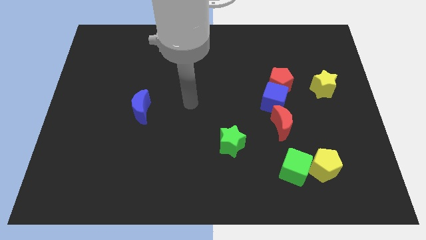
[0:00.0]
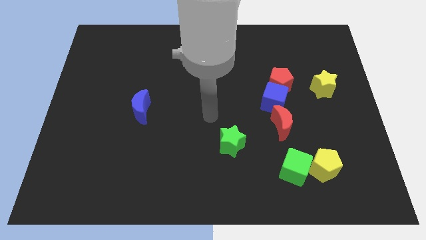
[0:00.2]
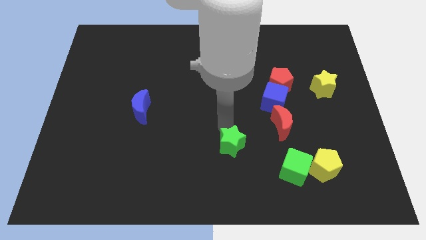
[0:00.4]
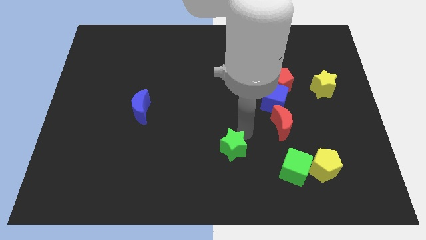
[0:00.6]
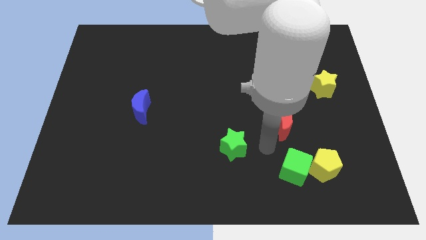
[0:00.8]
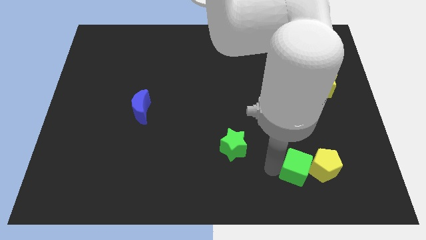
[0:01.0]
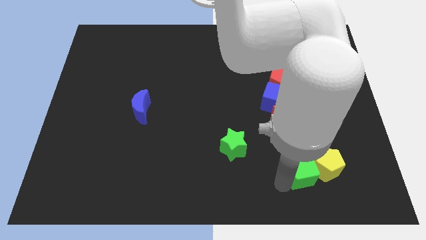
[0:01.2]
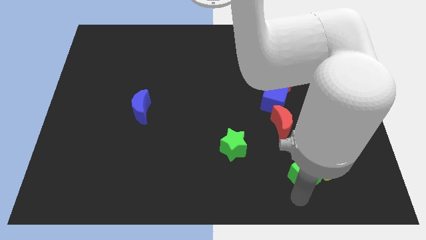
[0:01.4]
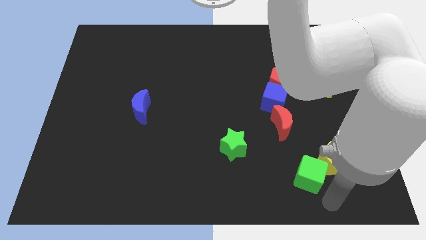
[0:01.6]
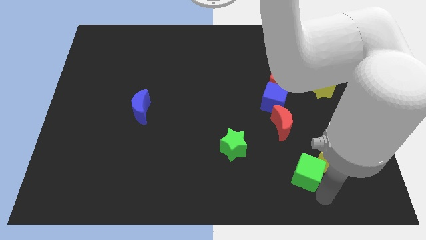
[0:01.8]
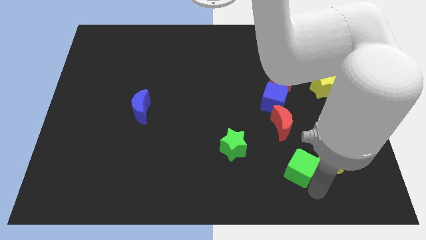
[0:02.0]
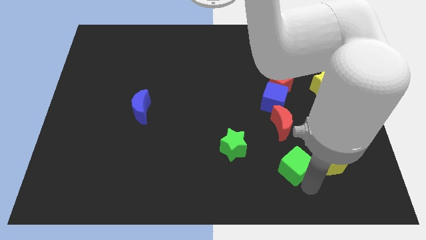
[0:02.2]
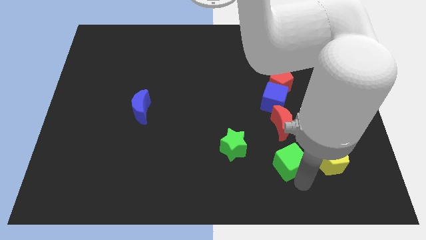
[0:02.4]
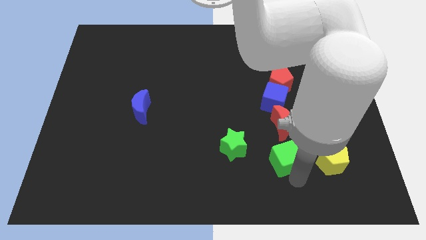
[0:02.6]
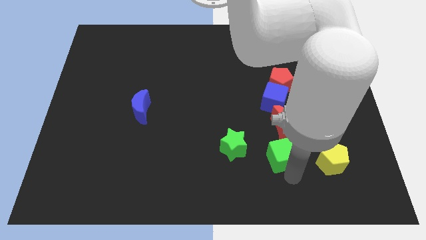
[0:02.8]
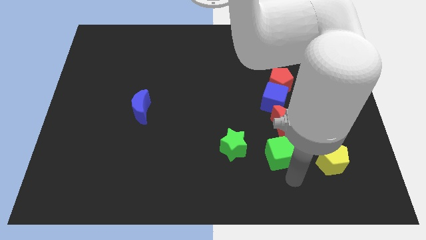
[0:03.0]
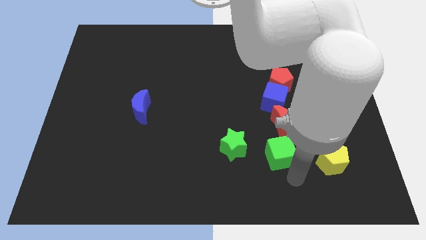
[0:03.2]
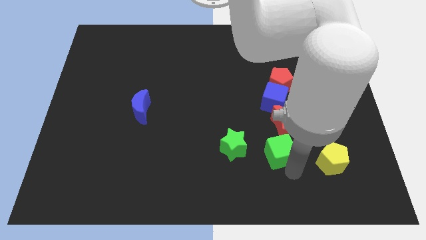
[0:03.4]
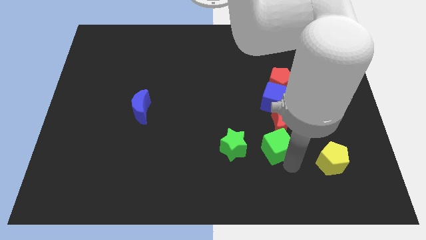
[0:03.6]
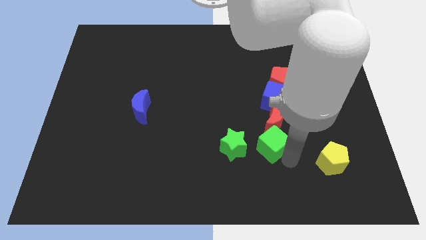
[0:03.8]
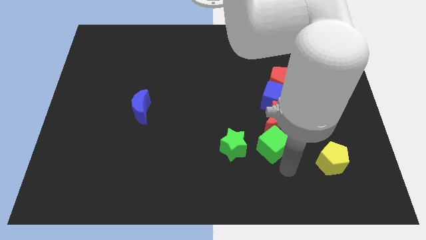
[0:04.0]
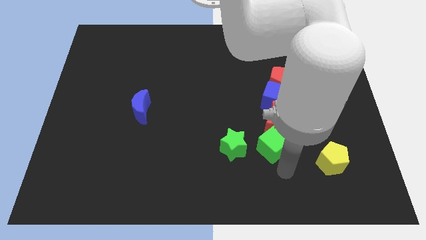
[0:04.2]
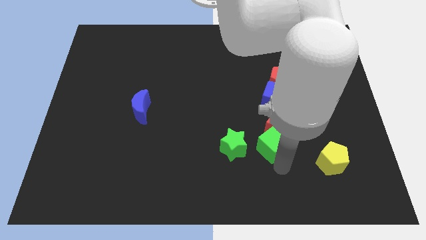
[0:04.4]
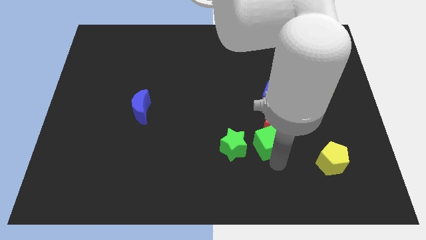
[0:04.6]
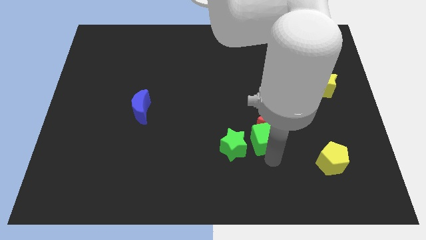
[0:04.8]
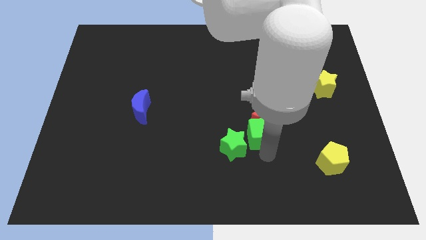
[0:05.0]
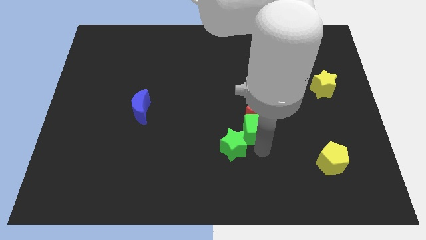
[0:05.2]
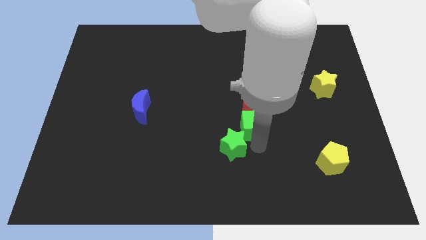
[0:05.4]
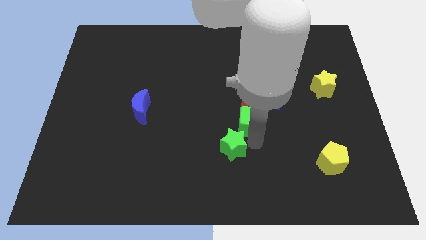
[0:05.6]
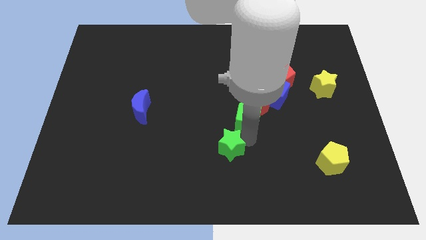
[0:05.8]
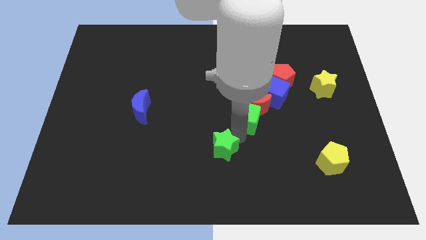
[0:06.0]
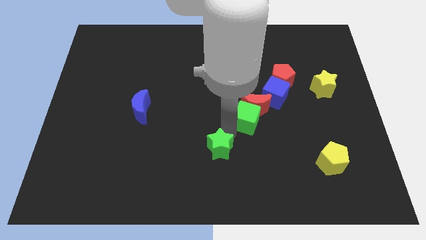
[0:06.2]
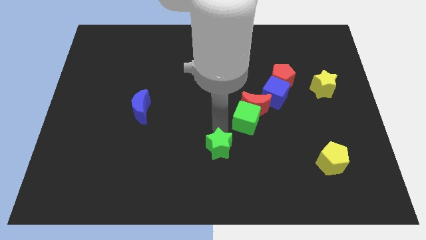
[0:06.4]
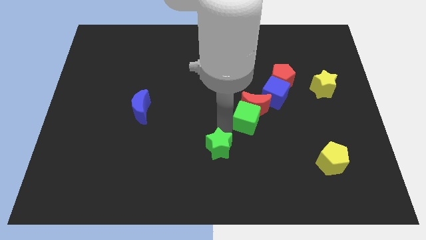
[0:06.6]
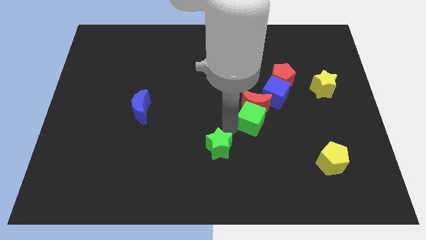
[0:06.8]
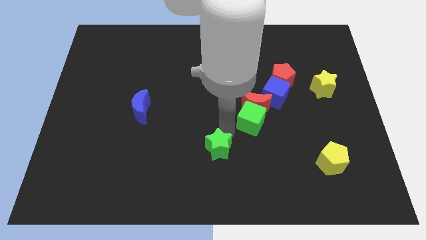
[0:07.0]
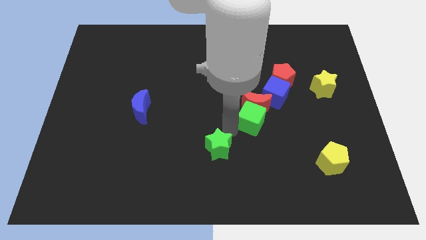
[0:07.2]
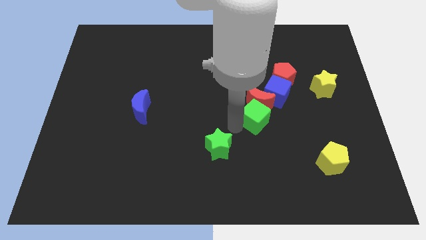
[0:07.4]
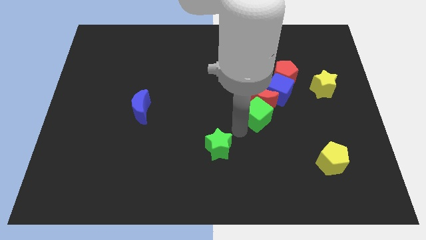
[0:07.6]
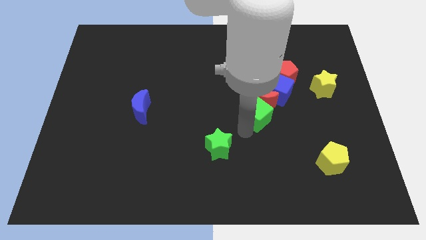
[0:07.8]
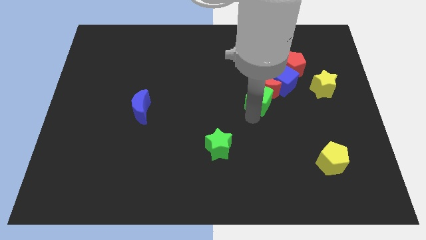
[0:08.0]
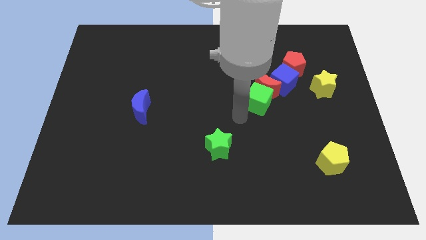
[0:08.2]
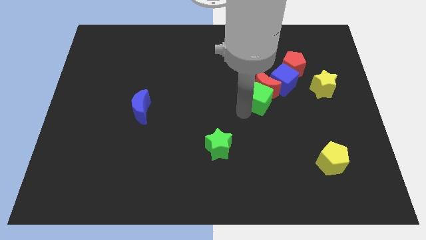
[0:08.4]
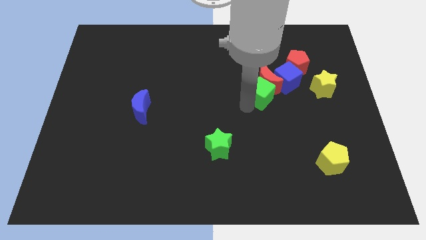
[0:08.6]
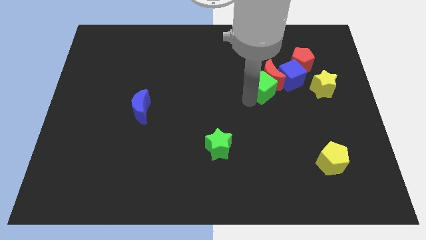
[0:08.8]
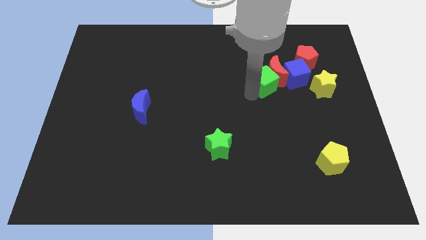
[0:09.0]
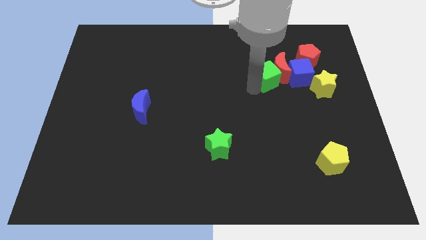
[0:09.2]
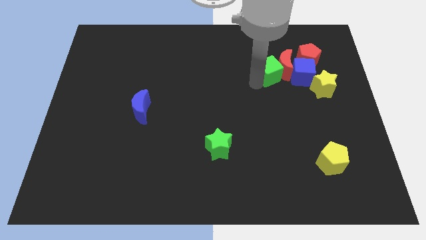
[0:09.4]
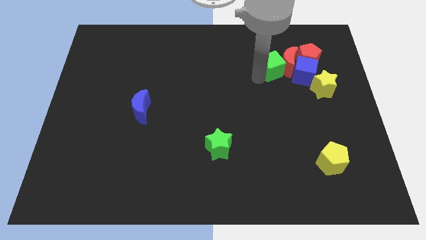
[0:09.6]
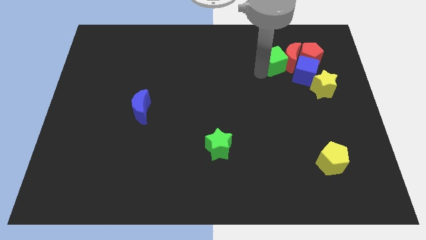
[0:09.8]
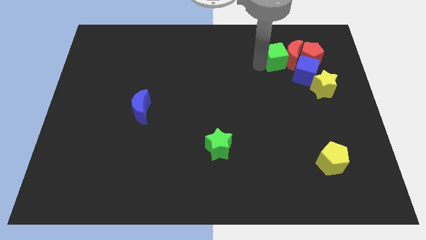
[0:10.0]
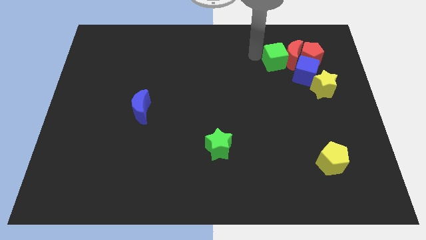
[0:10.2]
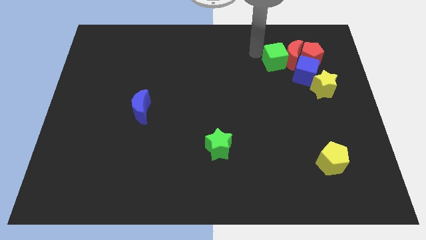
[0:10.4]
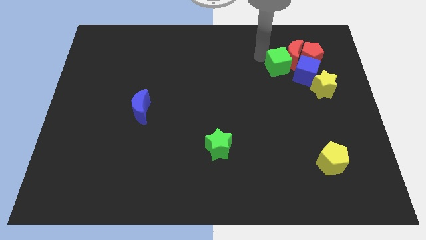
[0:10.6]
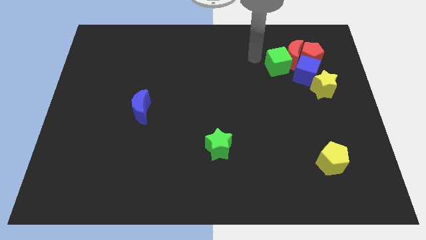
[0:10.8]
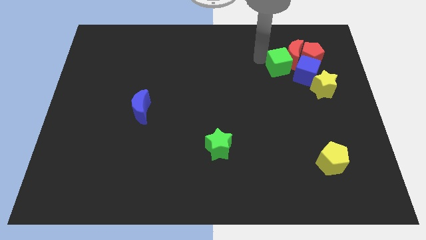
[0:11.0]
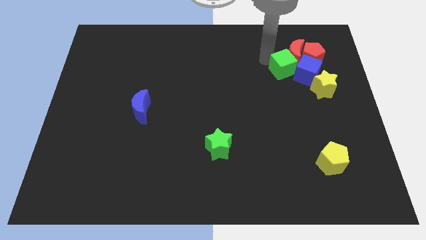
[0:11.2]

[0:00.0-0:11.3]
move the green cube towards the blue cube

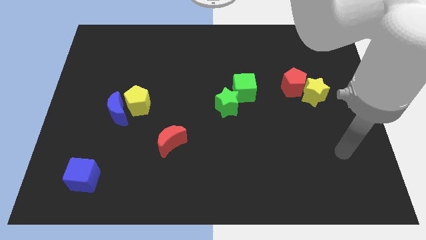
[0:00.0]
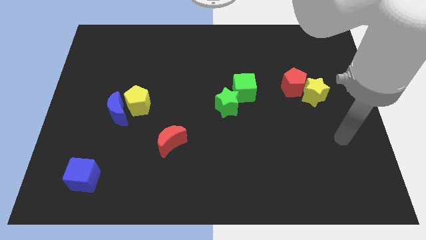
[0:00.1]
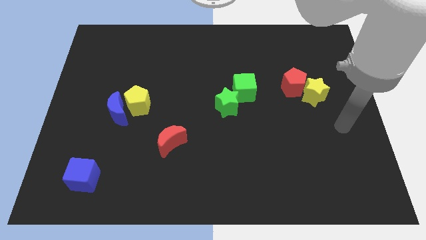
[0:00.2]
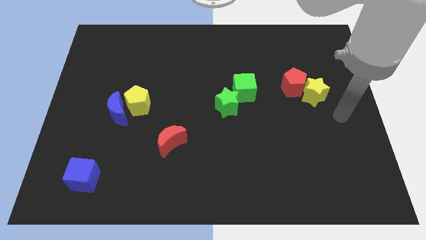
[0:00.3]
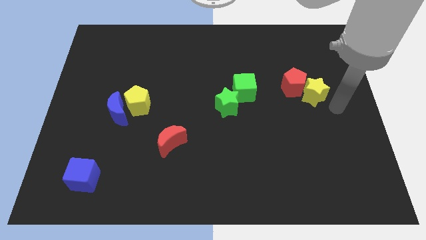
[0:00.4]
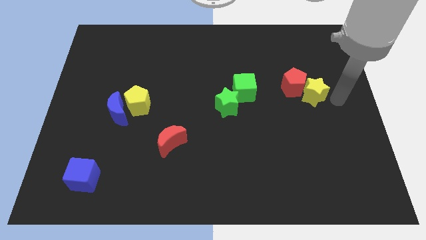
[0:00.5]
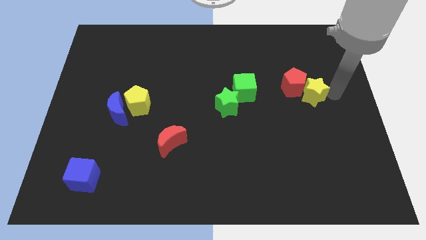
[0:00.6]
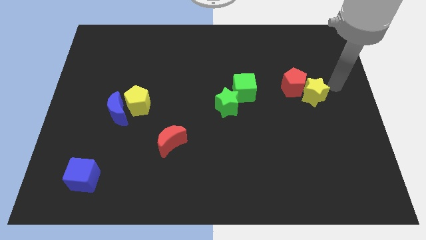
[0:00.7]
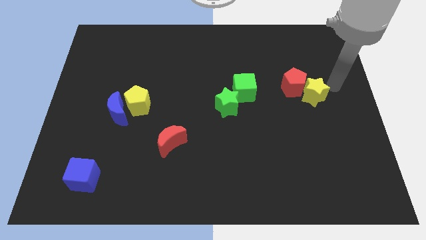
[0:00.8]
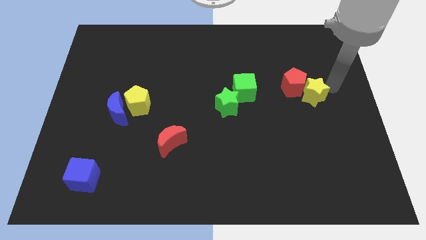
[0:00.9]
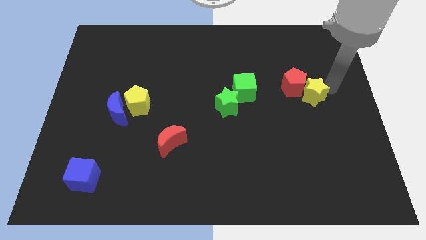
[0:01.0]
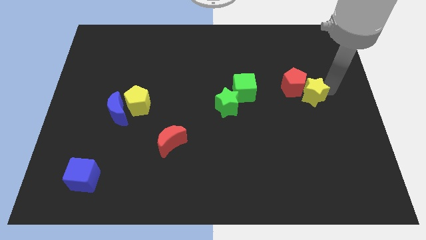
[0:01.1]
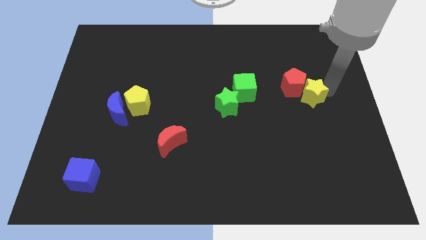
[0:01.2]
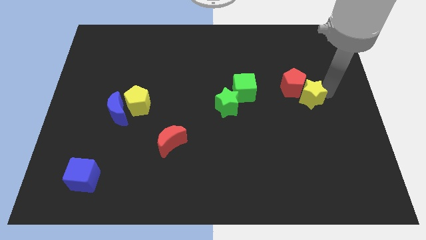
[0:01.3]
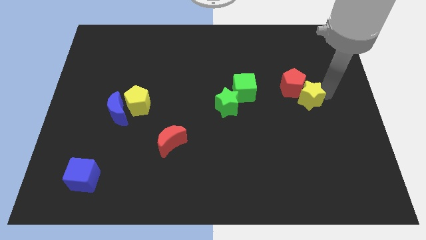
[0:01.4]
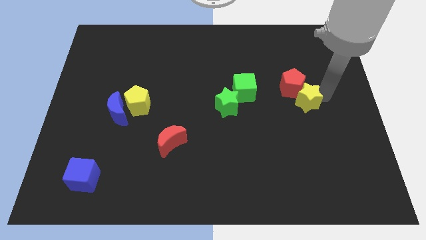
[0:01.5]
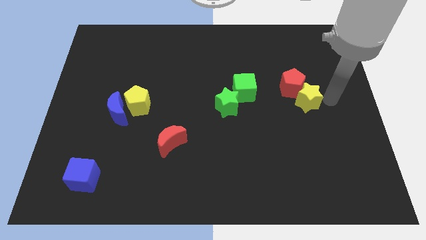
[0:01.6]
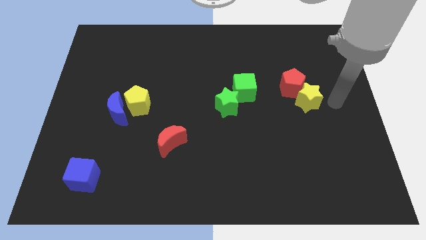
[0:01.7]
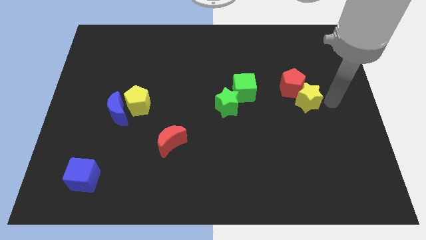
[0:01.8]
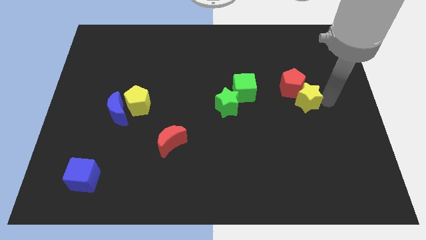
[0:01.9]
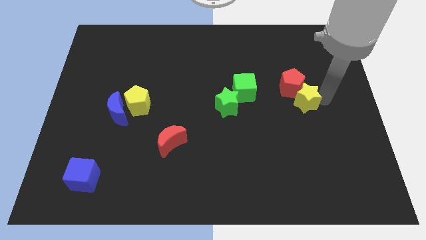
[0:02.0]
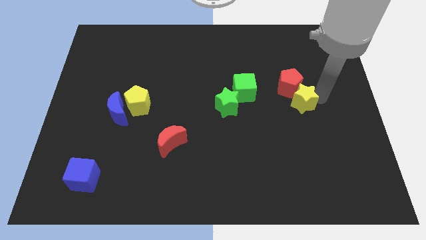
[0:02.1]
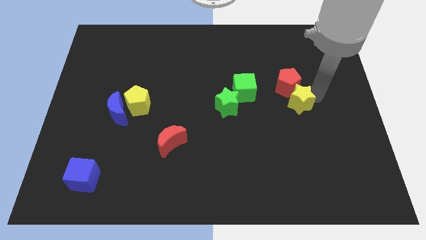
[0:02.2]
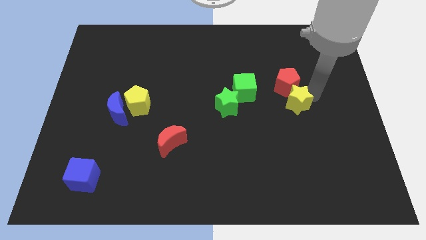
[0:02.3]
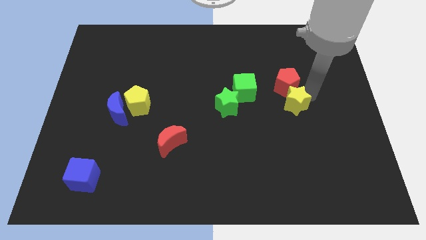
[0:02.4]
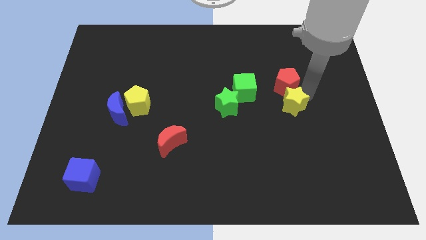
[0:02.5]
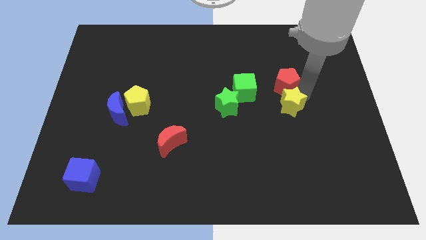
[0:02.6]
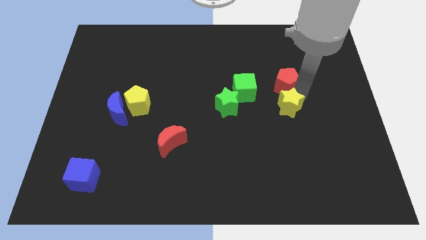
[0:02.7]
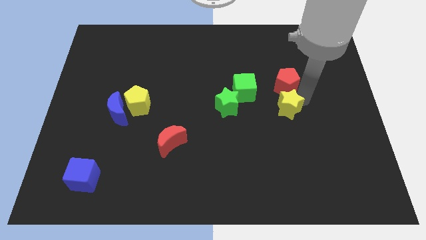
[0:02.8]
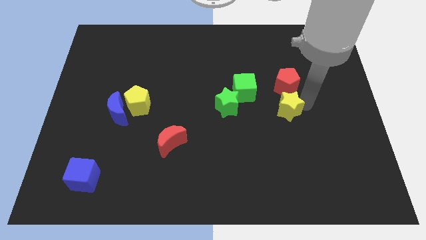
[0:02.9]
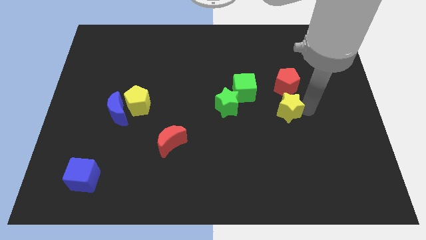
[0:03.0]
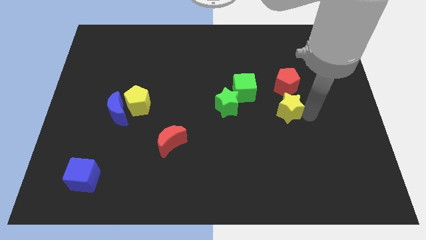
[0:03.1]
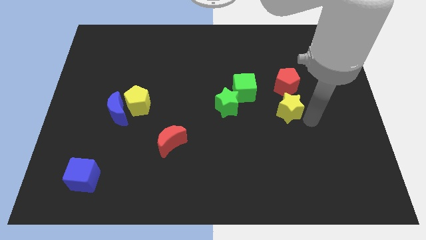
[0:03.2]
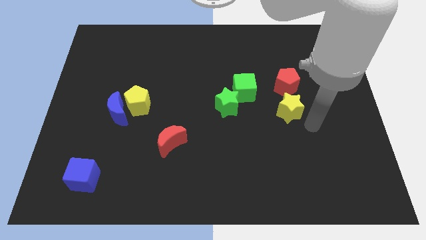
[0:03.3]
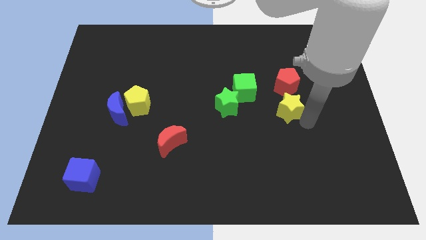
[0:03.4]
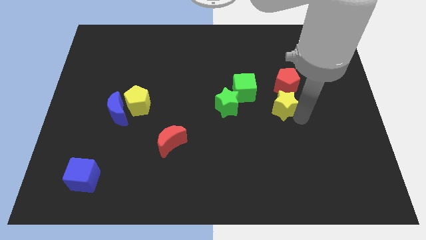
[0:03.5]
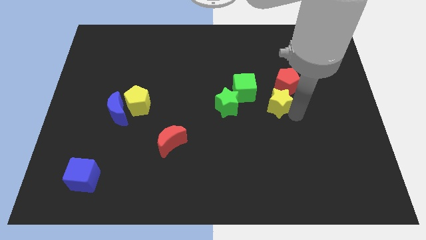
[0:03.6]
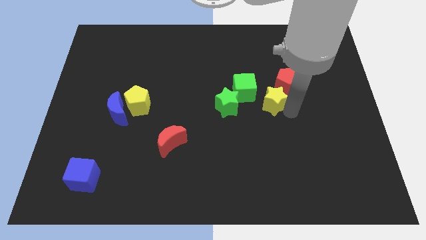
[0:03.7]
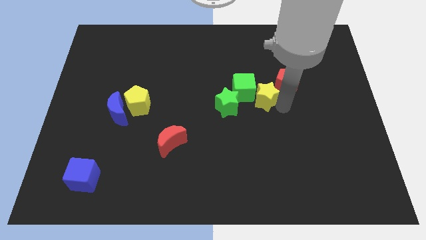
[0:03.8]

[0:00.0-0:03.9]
slide the yellow star close to the green cube
